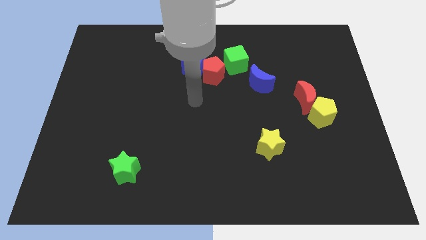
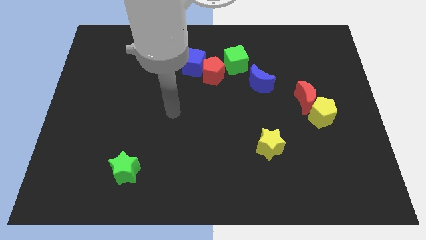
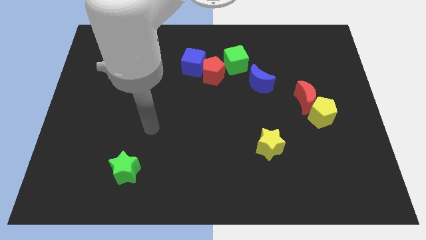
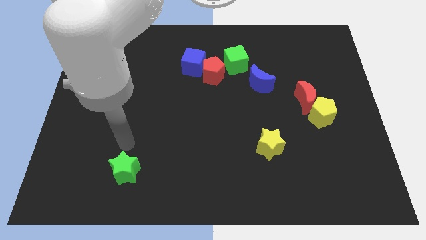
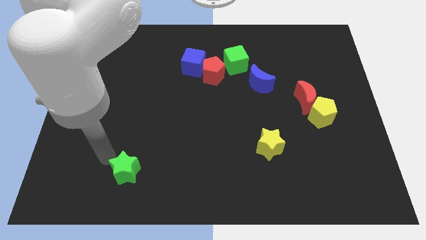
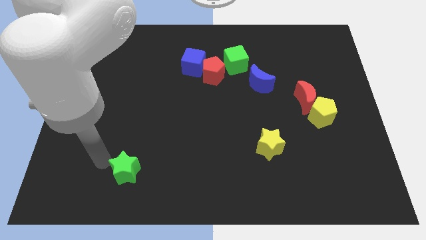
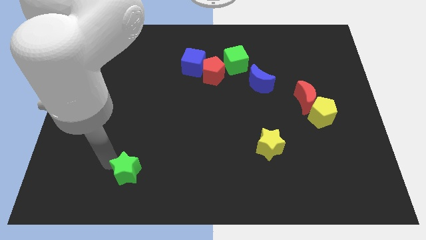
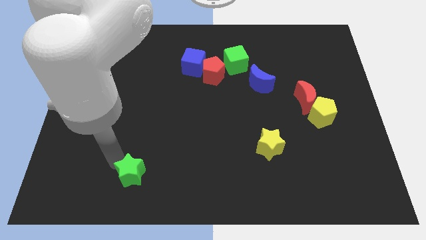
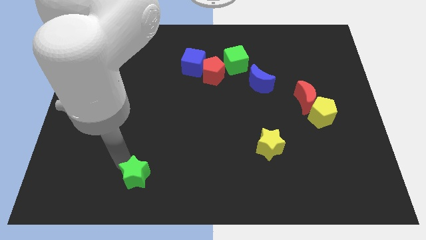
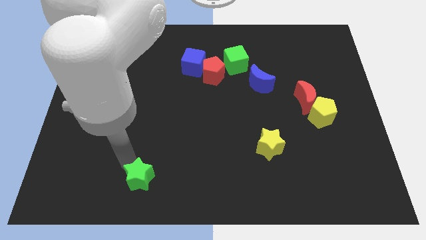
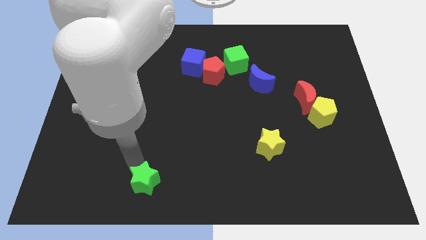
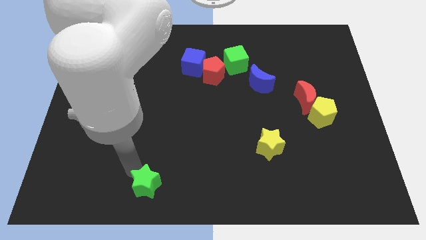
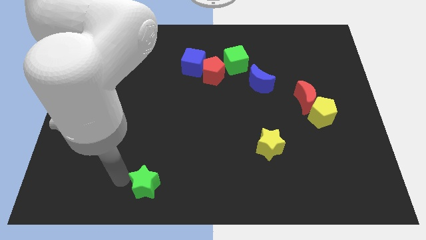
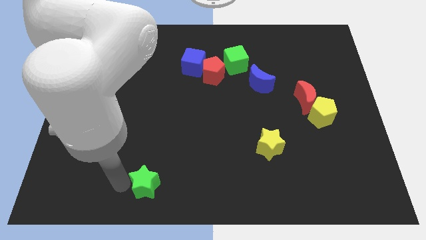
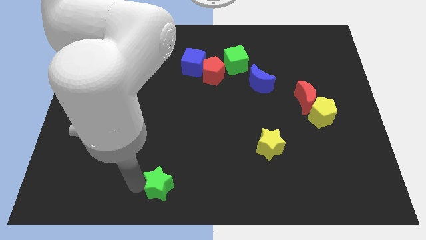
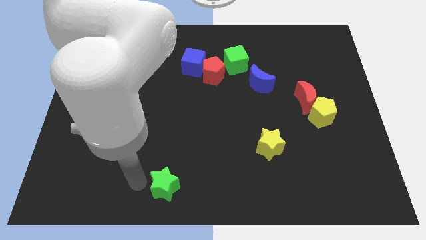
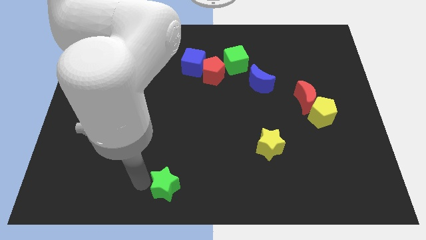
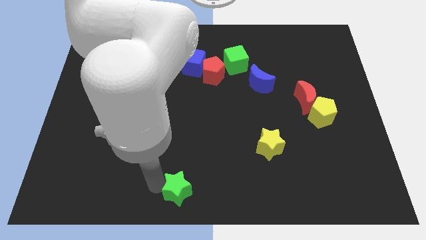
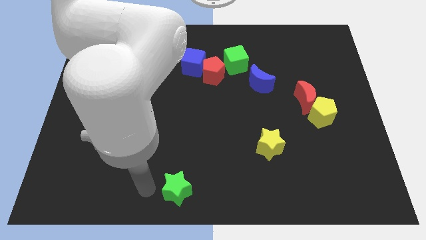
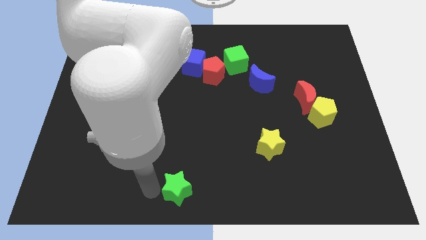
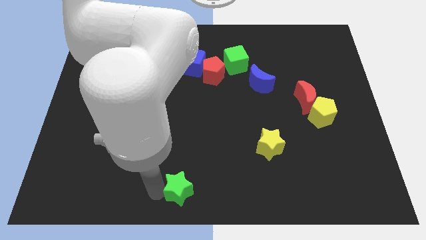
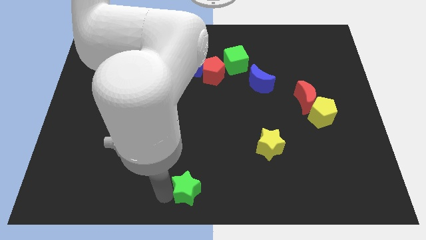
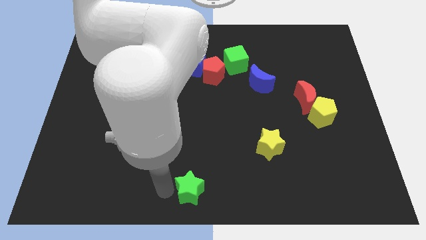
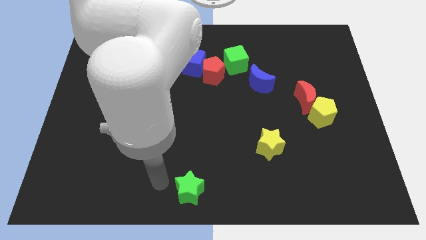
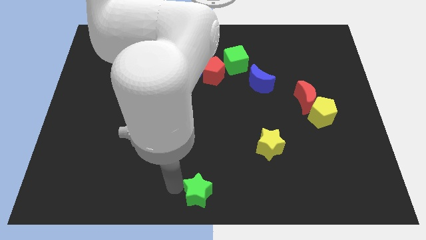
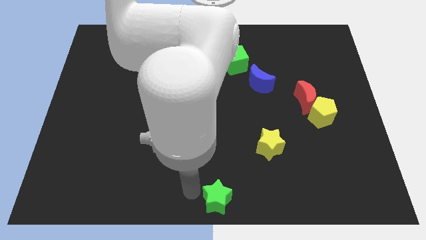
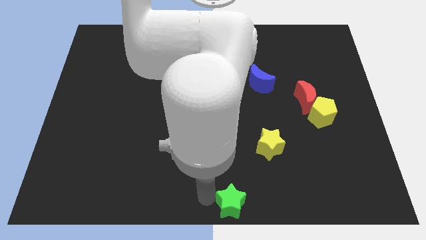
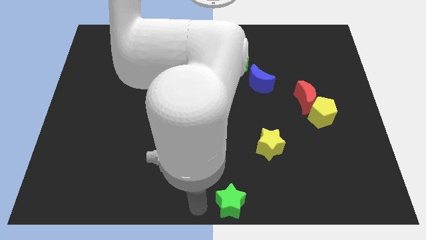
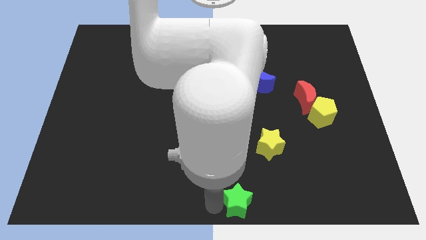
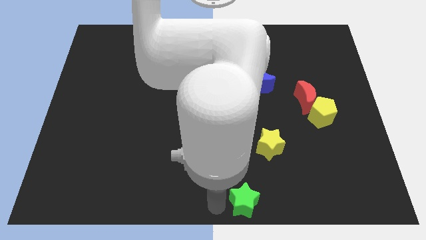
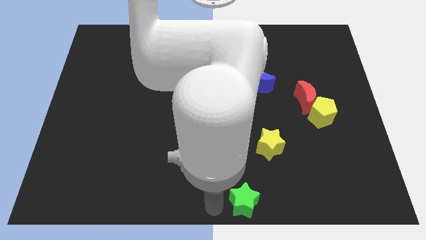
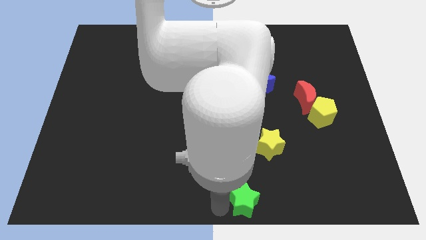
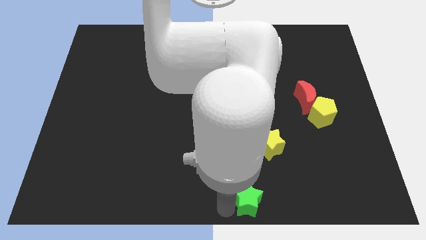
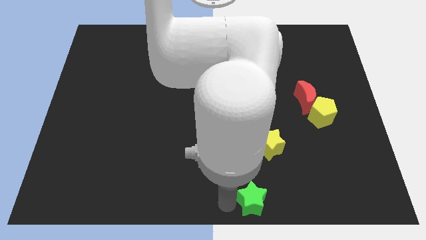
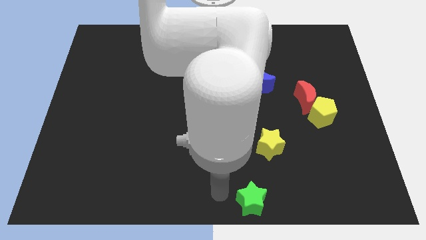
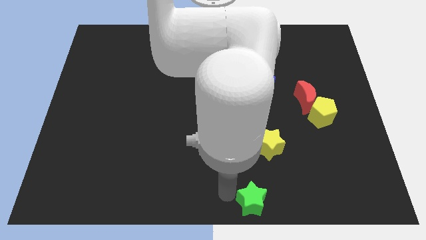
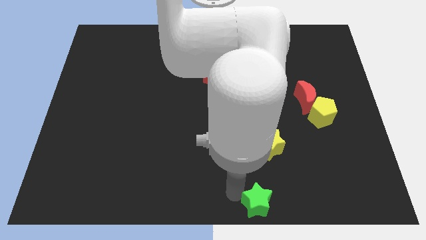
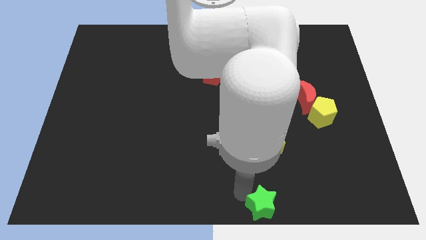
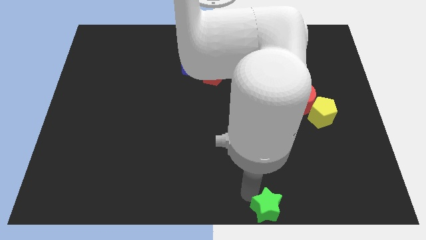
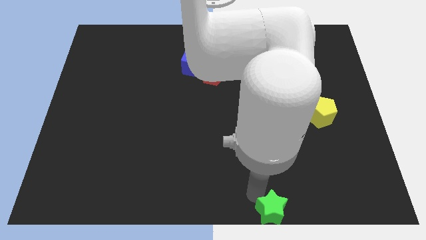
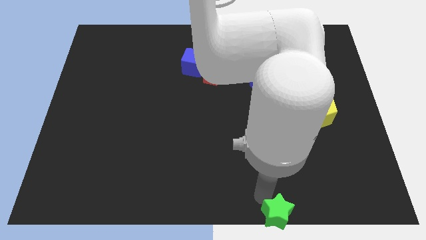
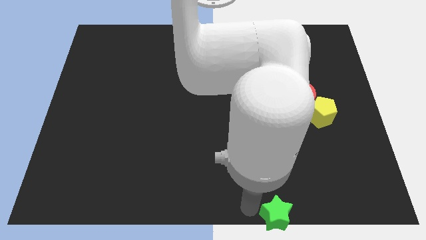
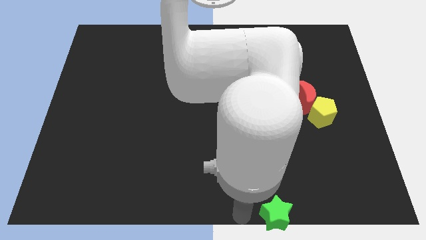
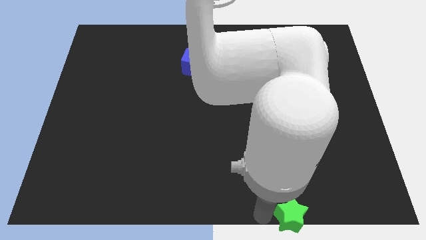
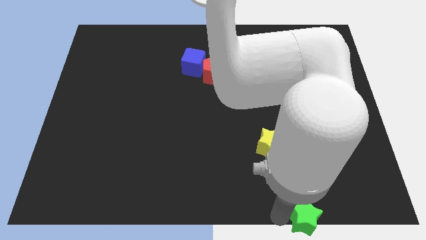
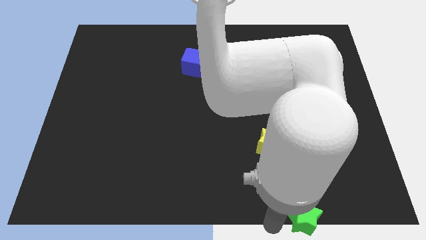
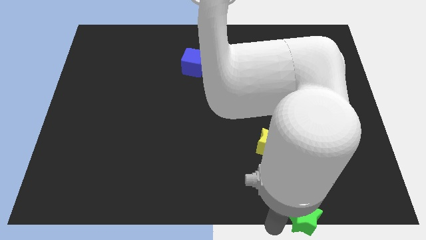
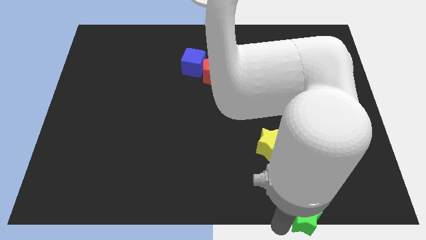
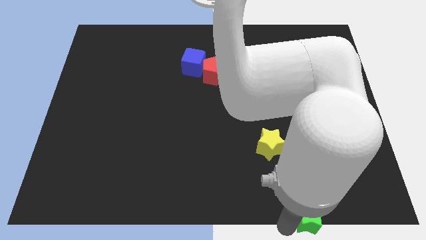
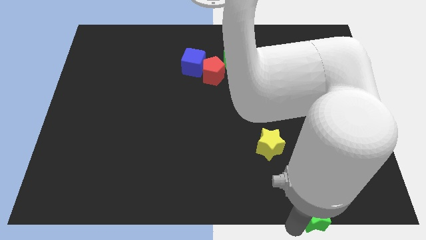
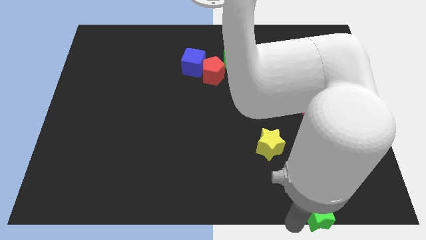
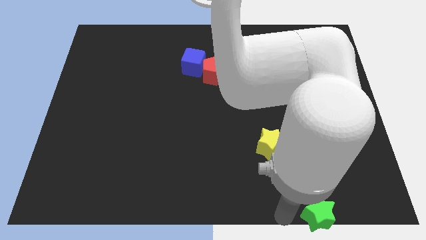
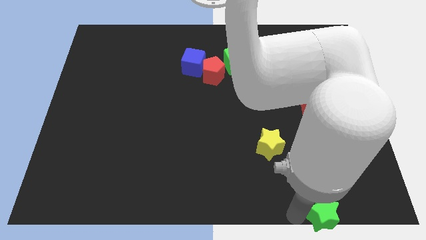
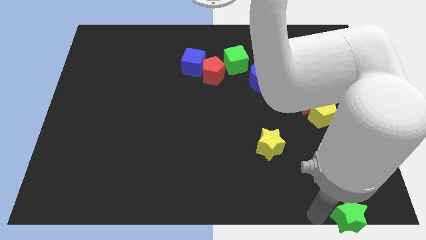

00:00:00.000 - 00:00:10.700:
put the green star to the bottom right
